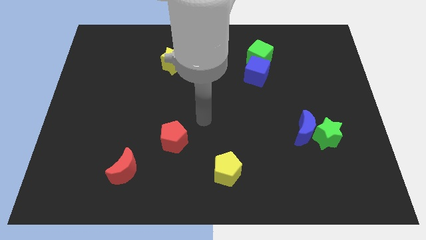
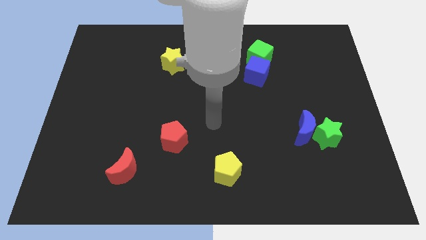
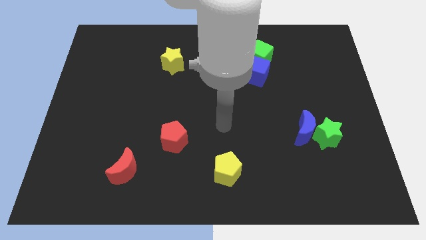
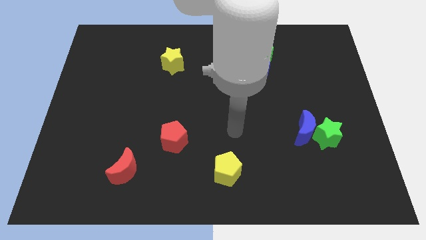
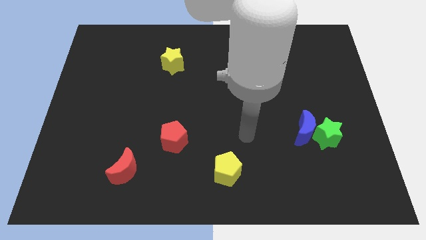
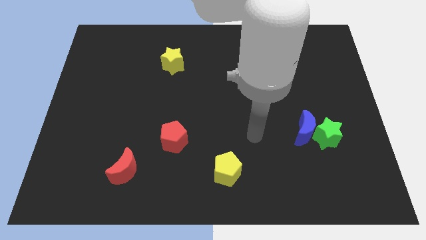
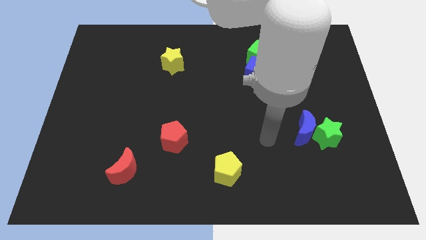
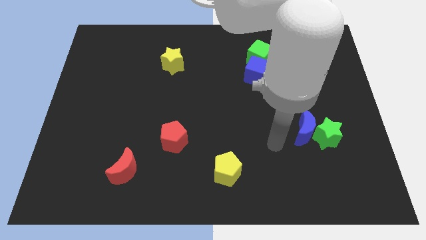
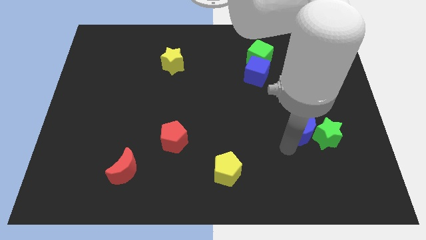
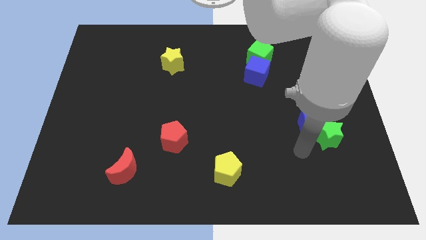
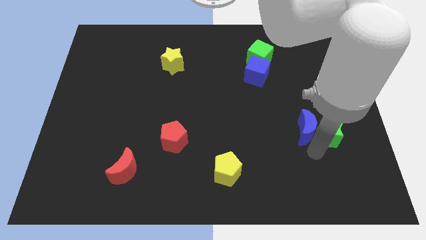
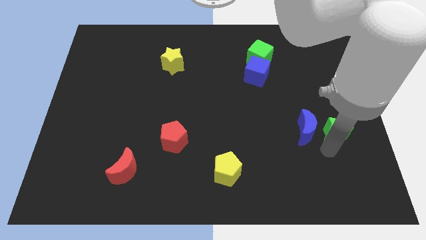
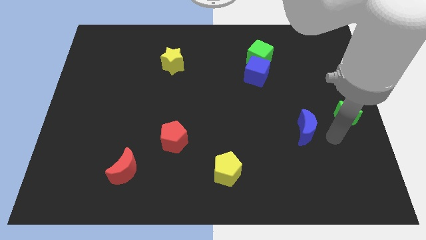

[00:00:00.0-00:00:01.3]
separate the blue moon from the green star

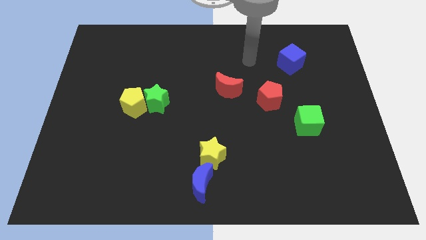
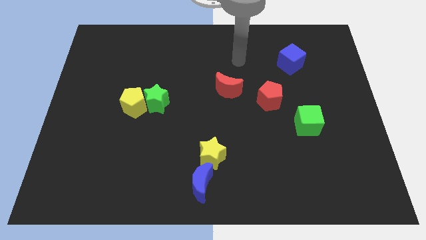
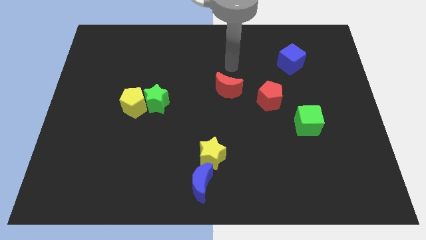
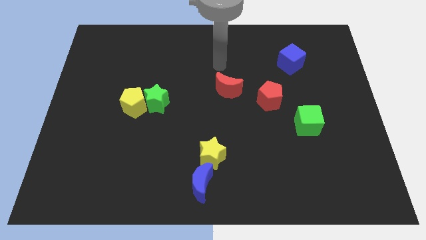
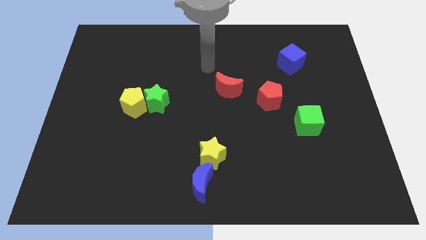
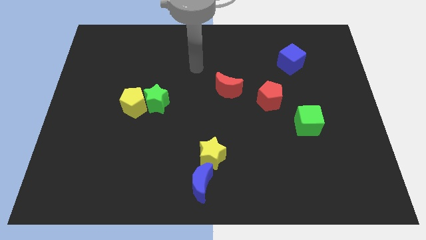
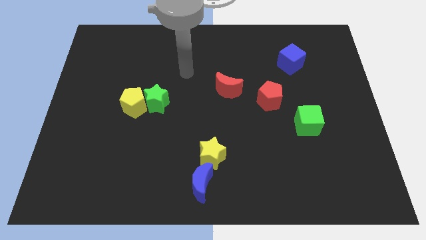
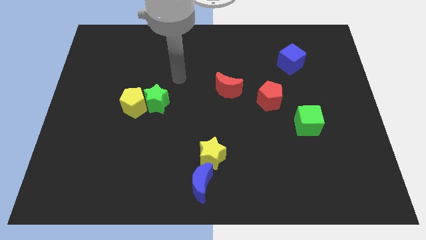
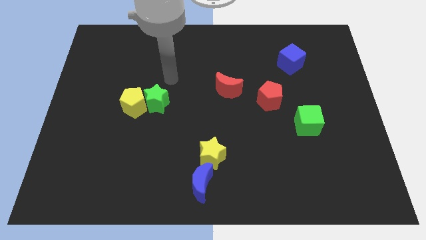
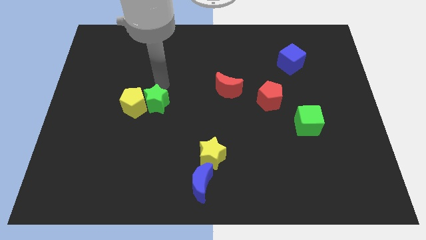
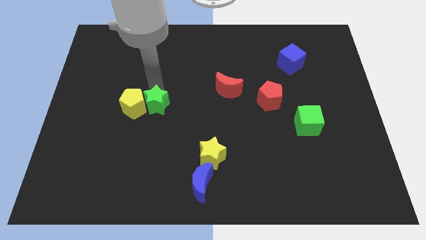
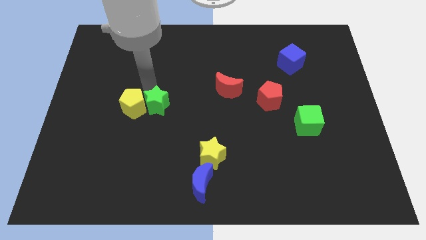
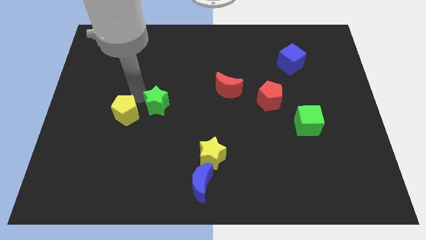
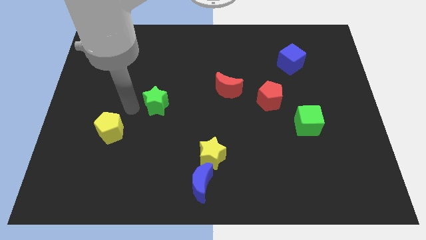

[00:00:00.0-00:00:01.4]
move the green star away from the yellow pentagon

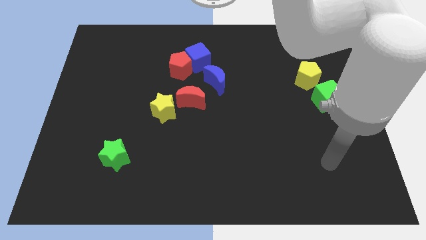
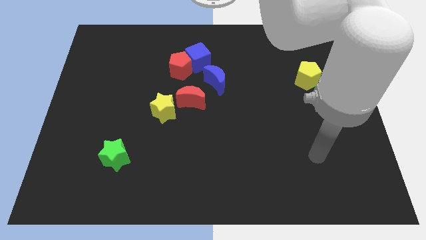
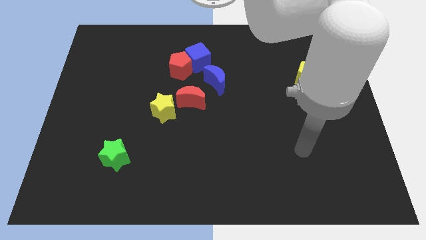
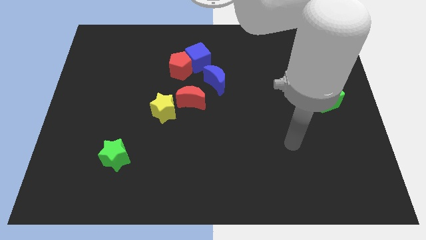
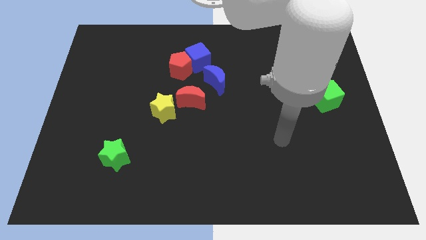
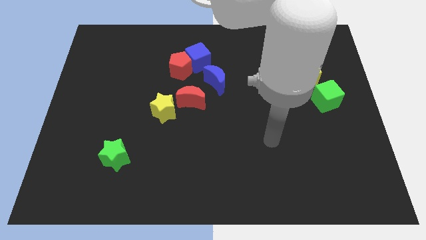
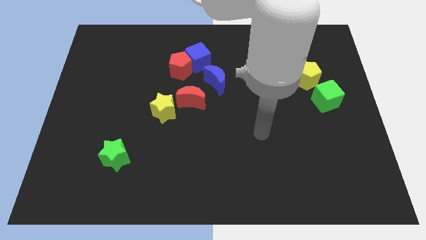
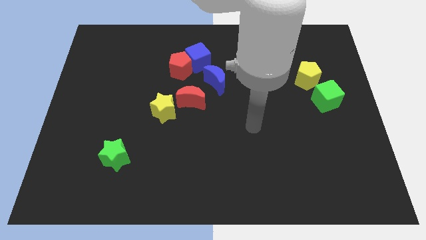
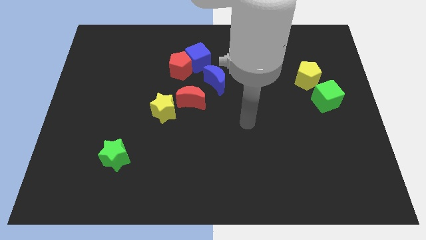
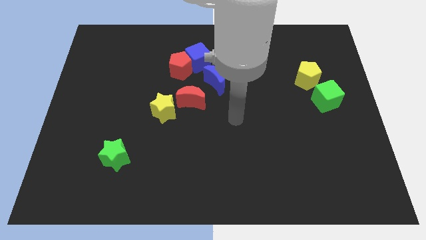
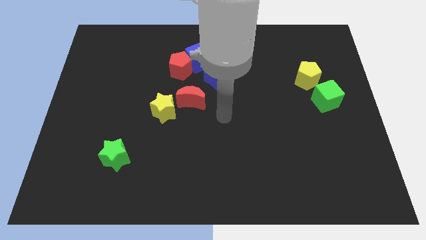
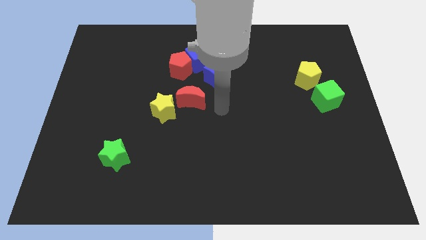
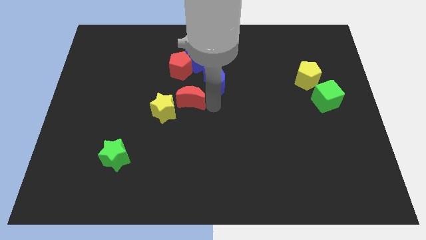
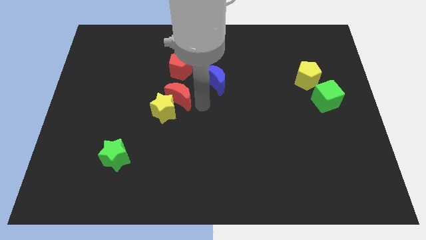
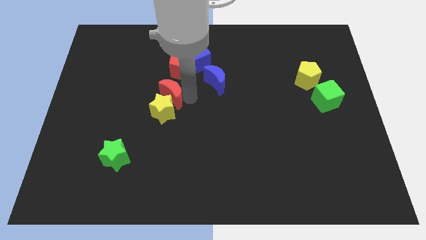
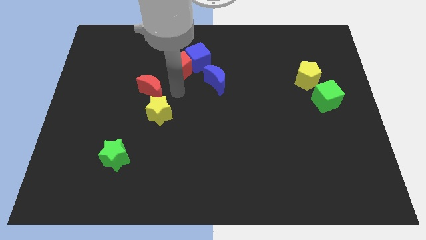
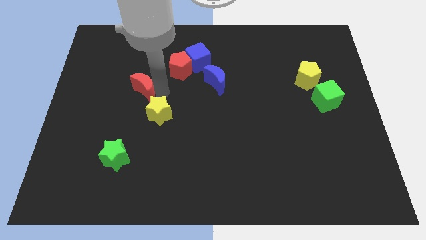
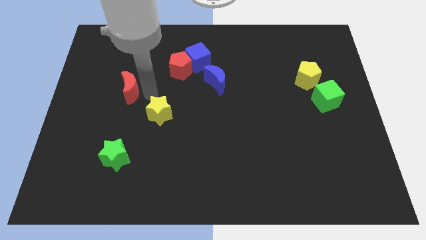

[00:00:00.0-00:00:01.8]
separate the yellow star from the red moon

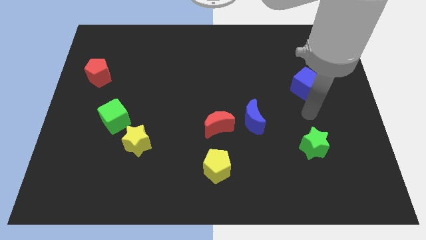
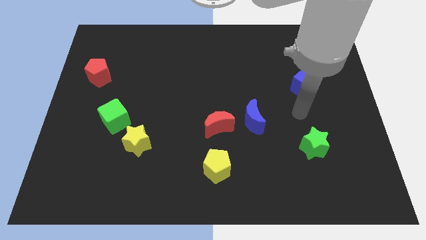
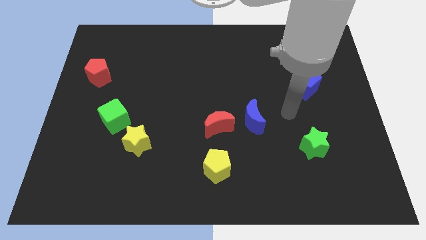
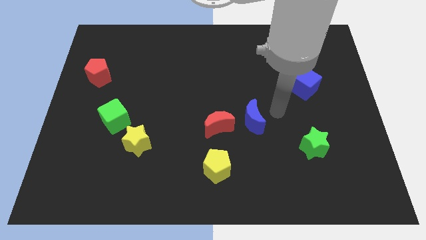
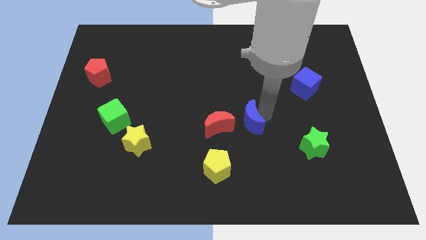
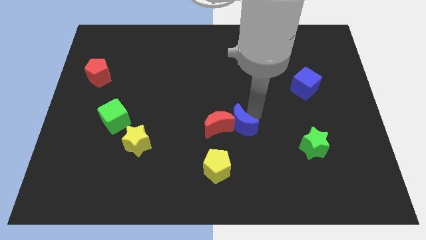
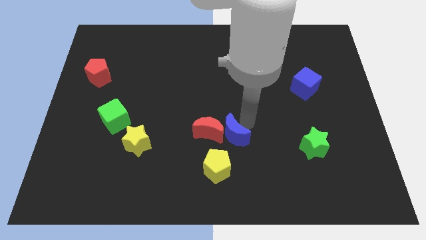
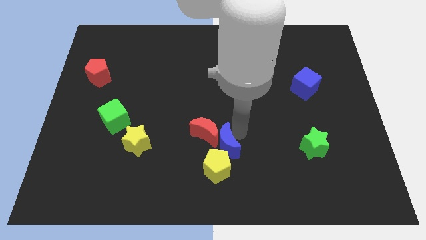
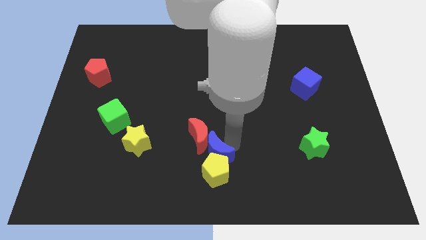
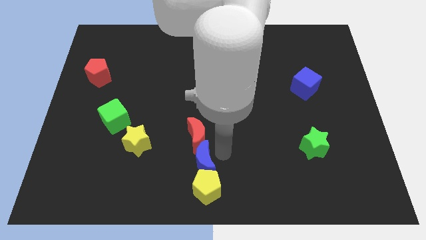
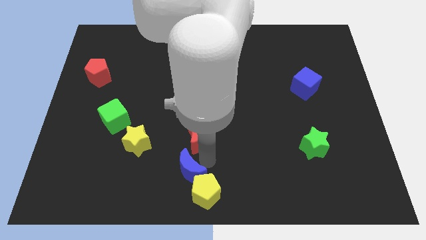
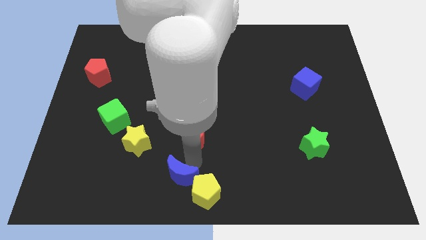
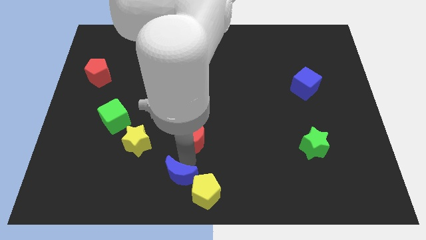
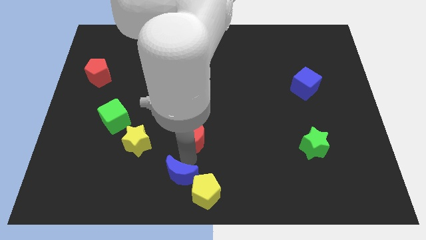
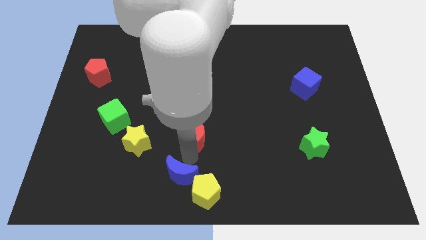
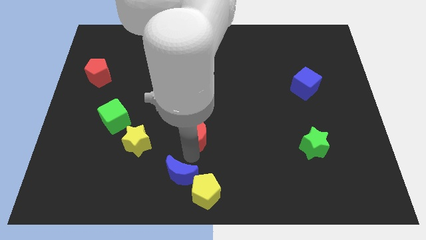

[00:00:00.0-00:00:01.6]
separate the red moon from the blue moon

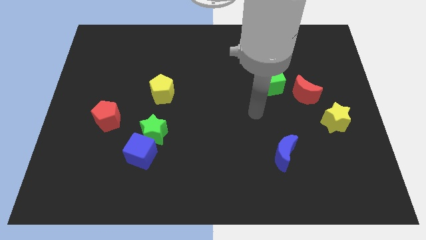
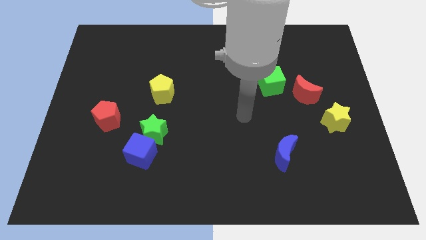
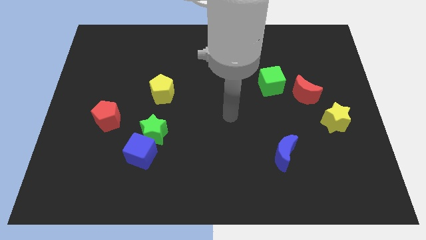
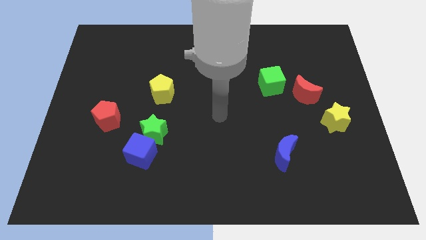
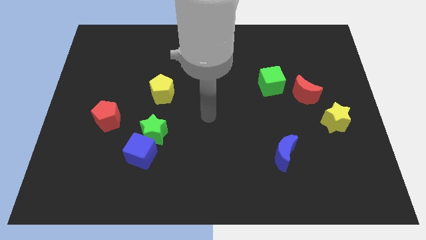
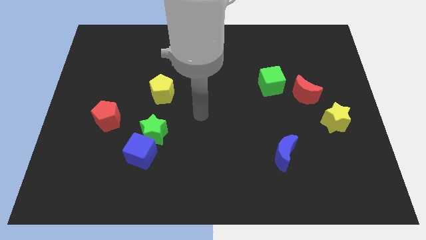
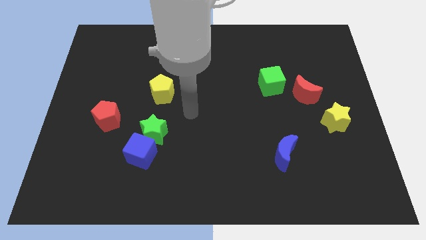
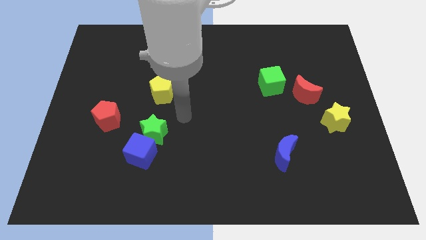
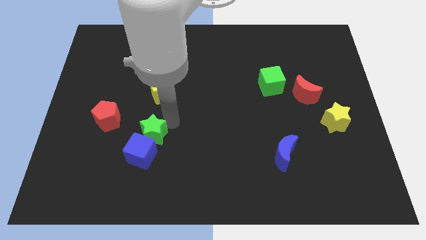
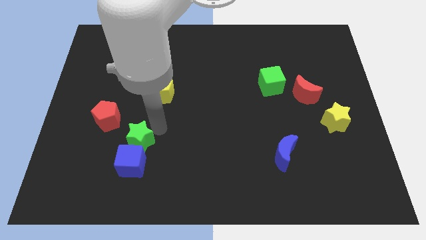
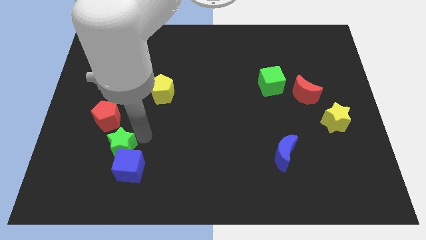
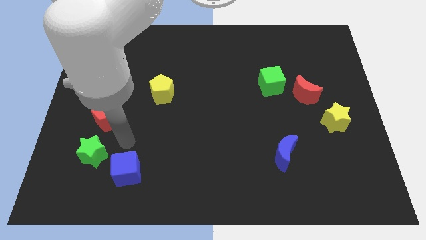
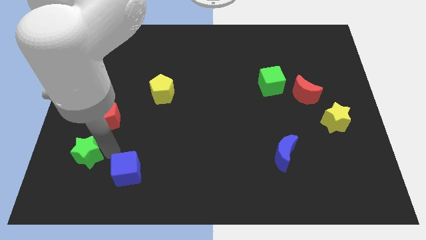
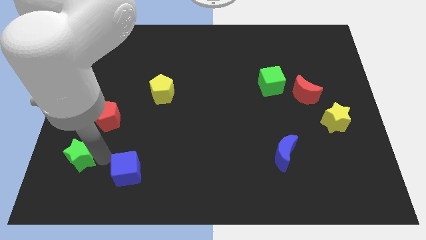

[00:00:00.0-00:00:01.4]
pull the blue cube apart from the green star

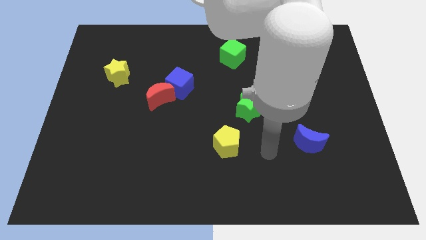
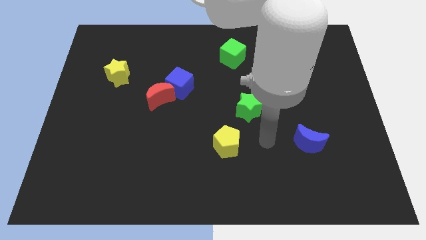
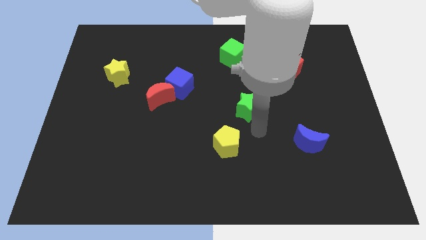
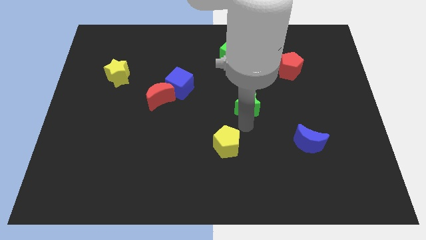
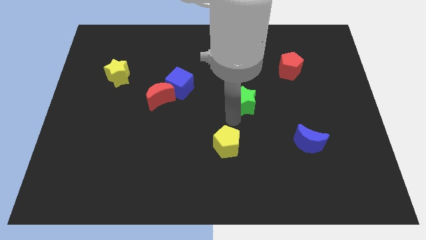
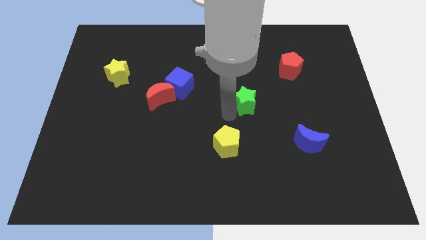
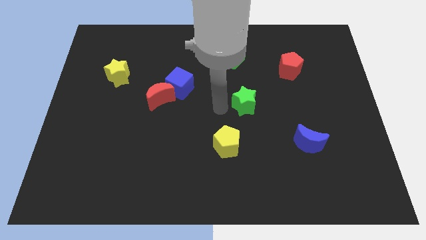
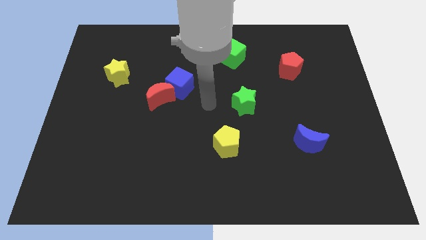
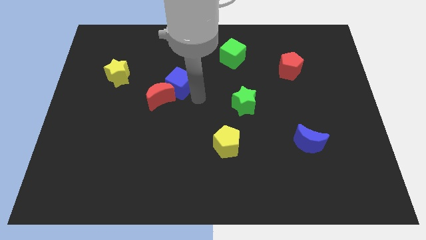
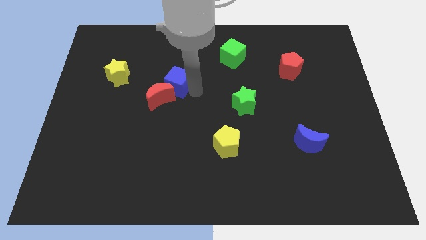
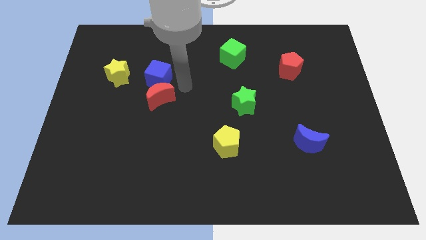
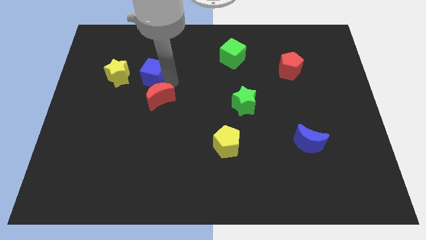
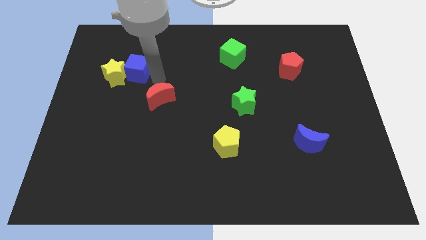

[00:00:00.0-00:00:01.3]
separate the red moon from the blue cube

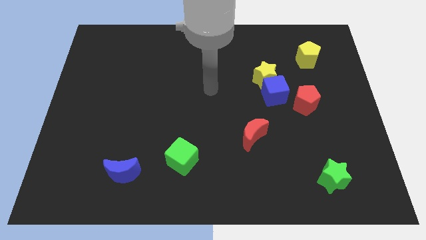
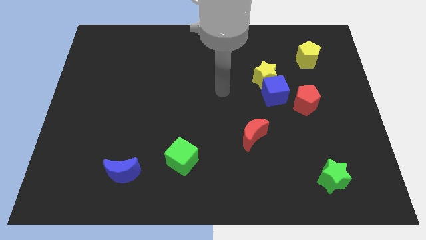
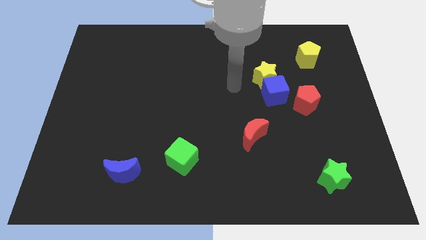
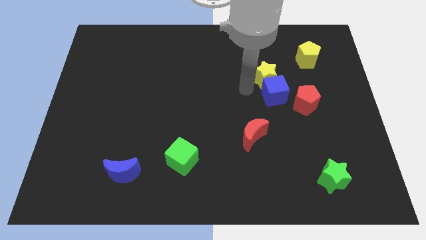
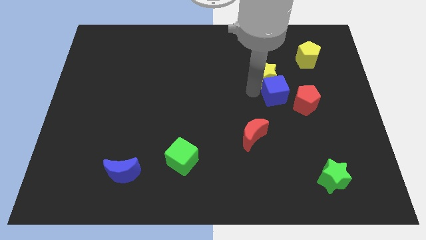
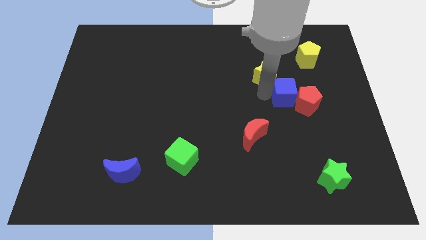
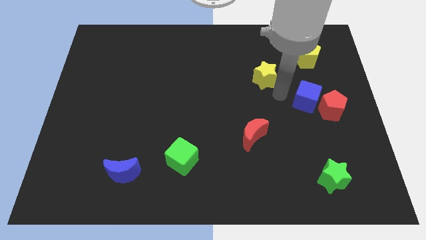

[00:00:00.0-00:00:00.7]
separate the yellow star from the blue cube
